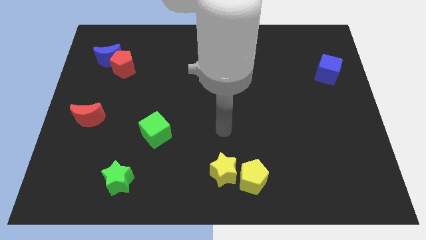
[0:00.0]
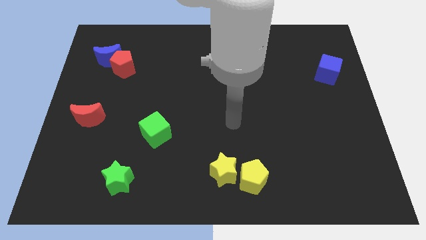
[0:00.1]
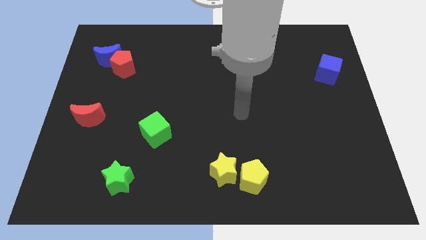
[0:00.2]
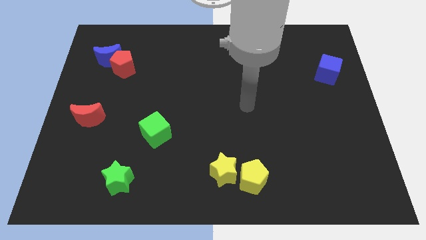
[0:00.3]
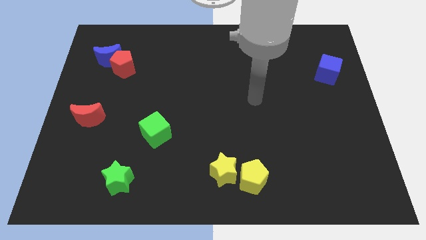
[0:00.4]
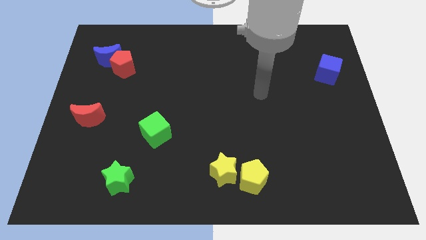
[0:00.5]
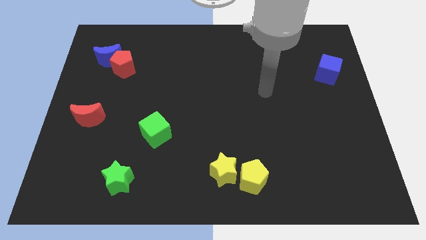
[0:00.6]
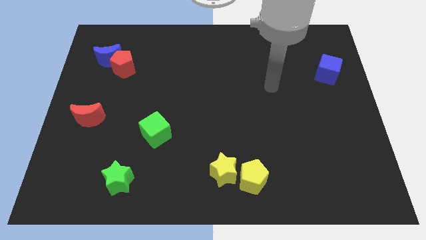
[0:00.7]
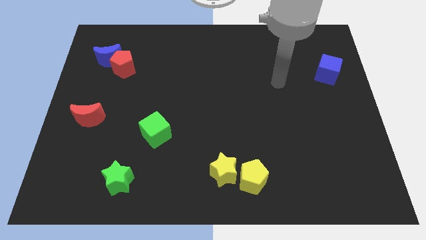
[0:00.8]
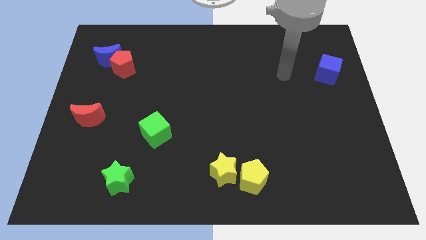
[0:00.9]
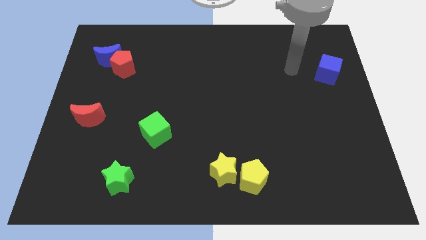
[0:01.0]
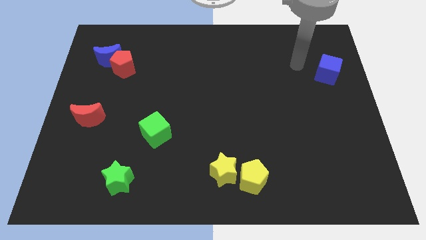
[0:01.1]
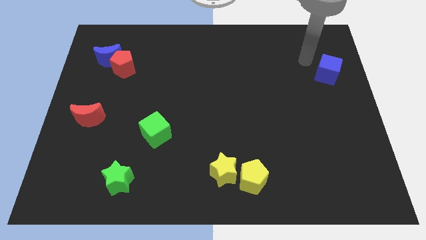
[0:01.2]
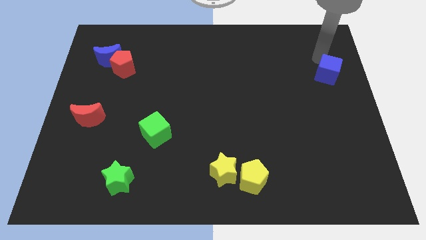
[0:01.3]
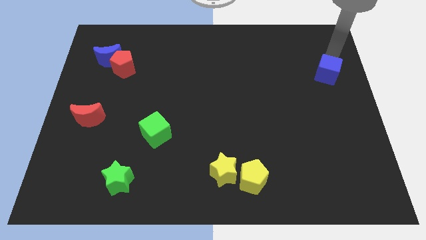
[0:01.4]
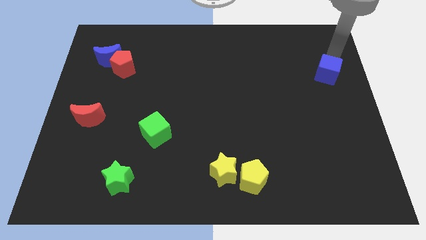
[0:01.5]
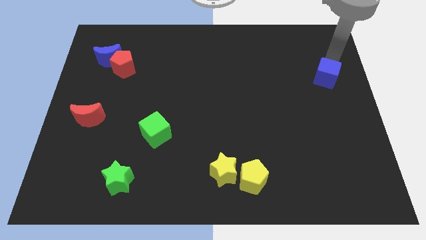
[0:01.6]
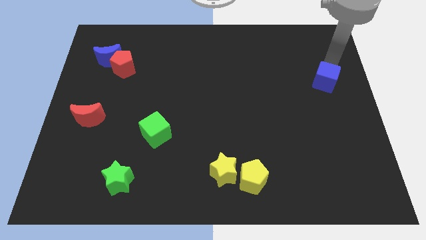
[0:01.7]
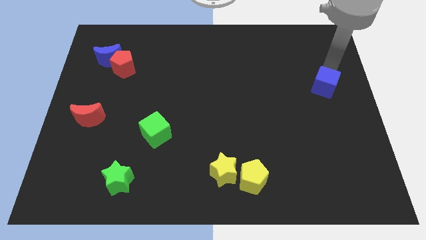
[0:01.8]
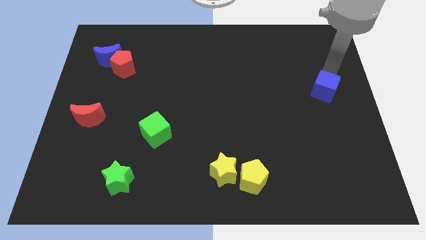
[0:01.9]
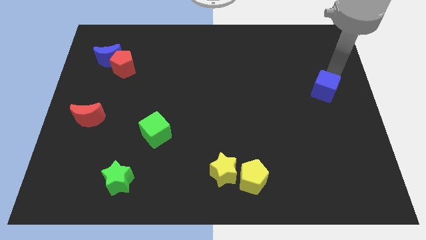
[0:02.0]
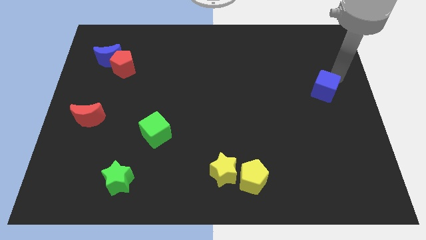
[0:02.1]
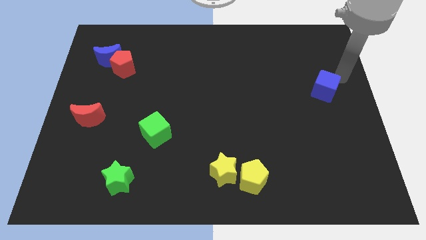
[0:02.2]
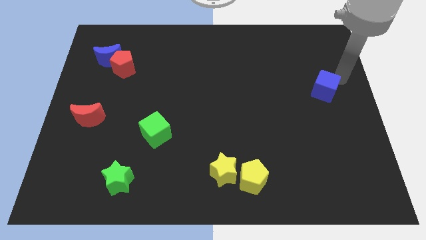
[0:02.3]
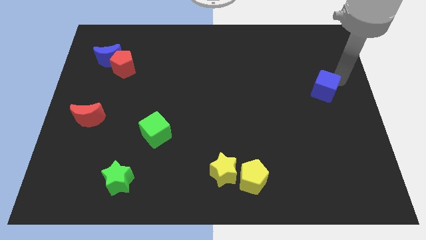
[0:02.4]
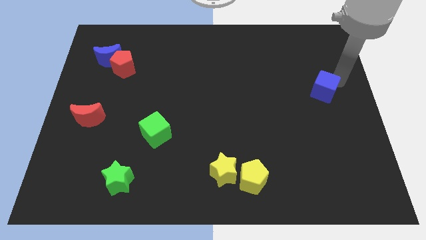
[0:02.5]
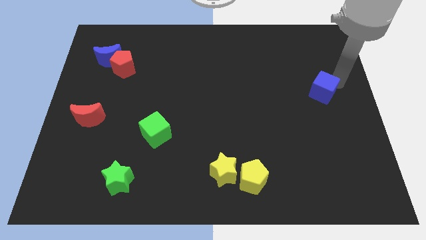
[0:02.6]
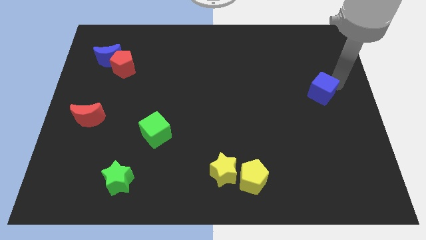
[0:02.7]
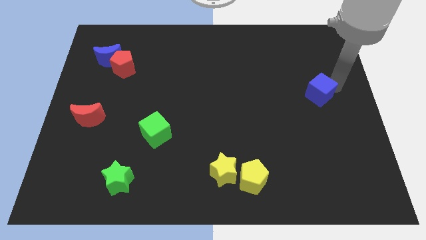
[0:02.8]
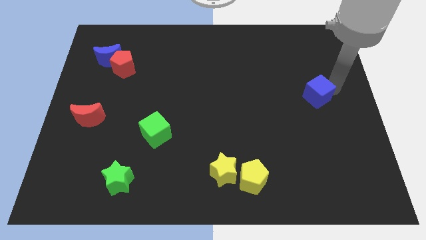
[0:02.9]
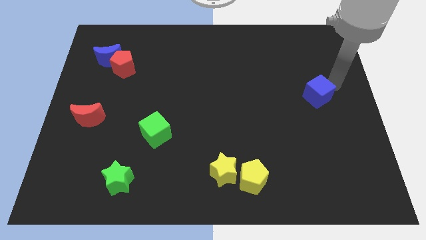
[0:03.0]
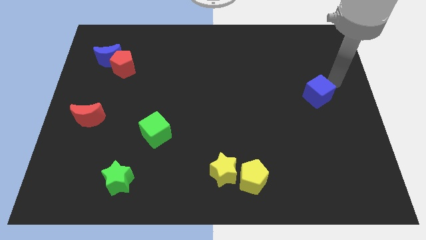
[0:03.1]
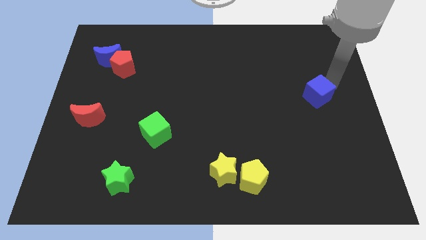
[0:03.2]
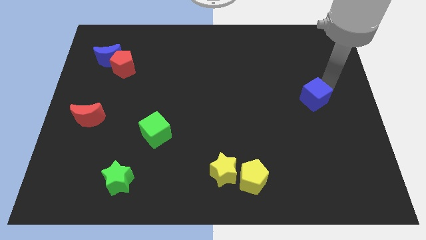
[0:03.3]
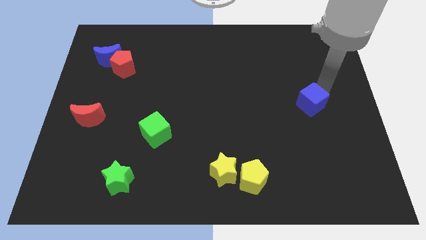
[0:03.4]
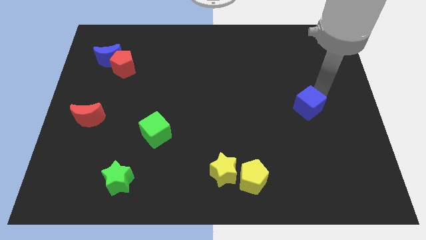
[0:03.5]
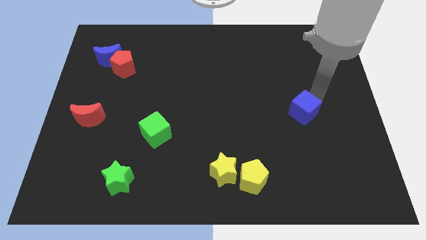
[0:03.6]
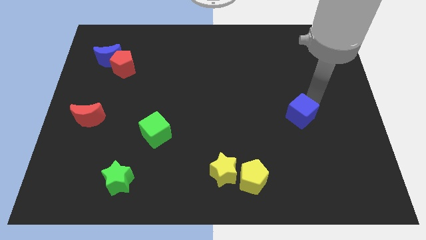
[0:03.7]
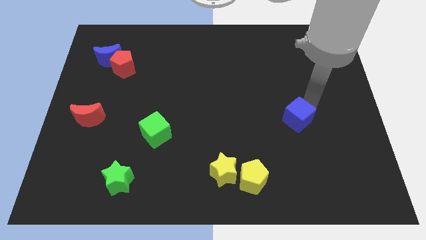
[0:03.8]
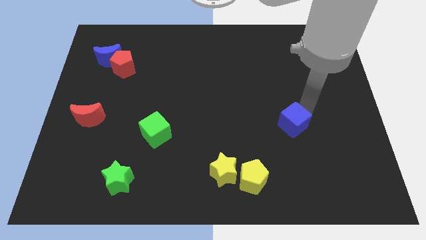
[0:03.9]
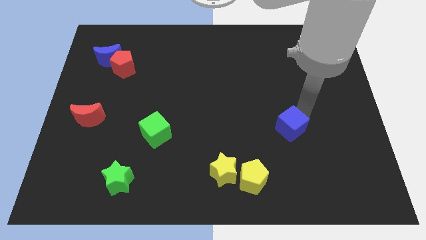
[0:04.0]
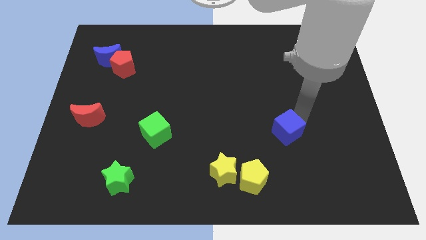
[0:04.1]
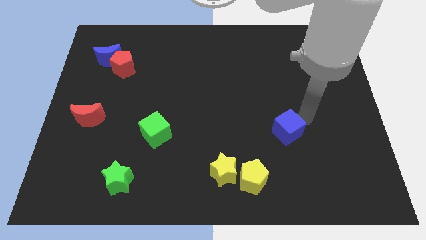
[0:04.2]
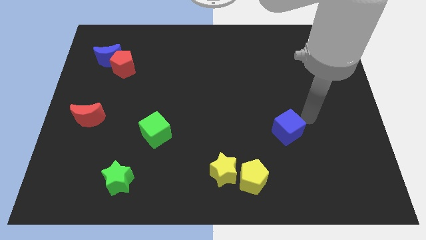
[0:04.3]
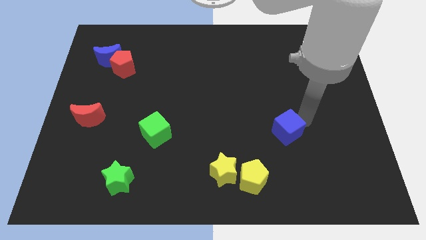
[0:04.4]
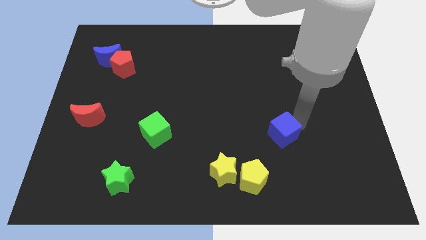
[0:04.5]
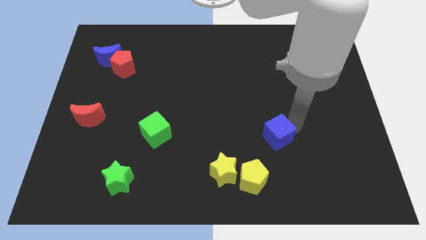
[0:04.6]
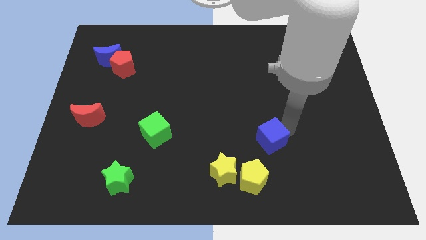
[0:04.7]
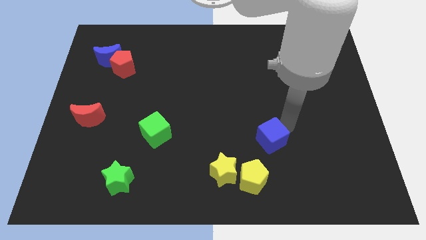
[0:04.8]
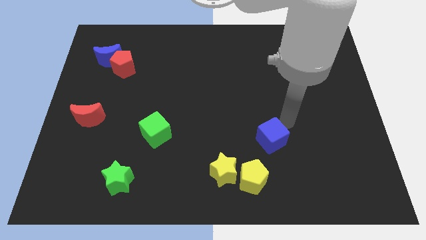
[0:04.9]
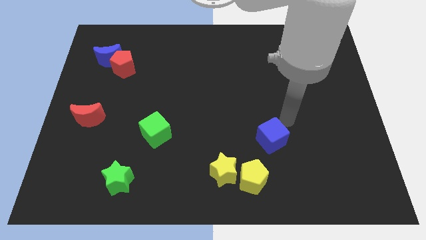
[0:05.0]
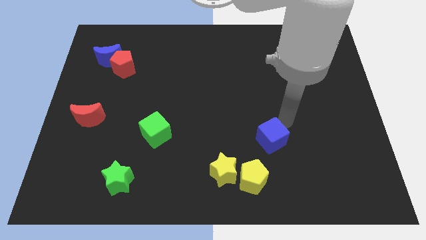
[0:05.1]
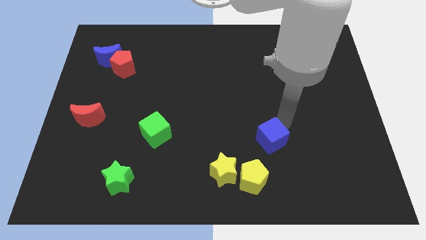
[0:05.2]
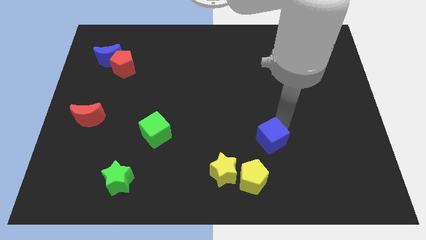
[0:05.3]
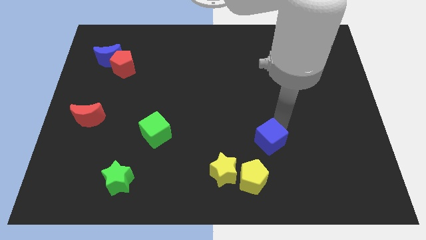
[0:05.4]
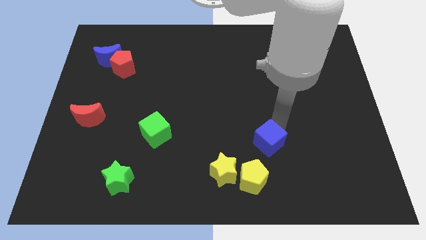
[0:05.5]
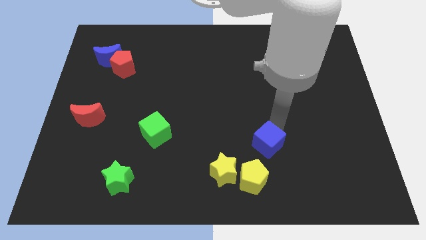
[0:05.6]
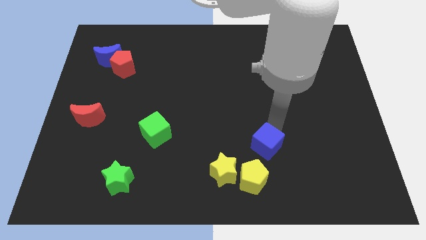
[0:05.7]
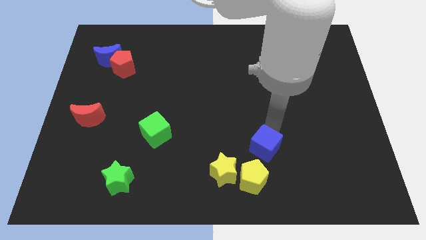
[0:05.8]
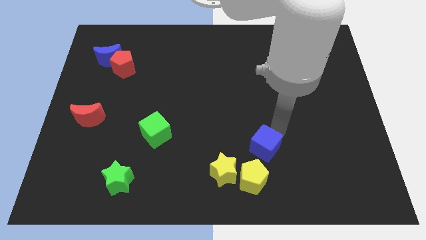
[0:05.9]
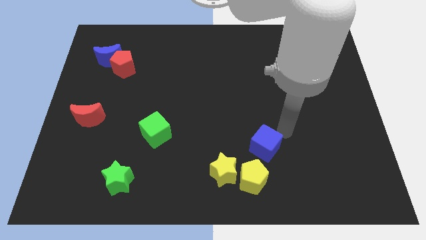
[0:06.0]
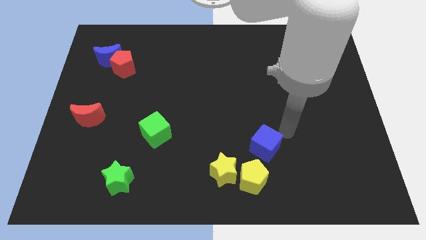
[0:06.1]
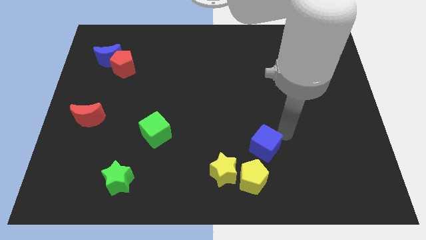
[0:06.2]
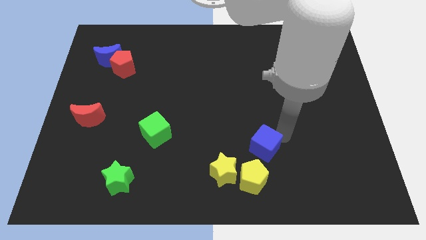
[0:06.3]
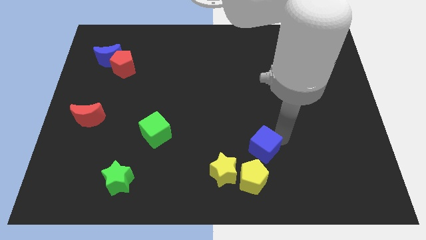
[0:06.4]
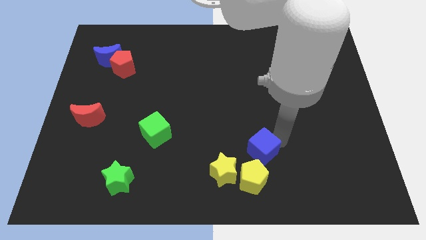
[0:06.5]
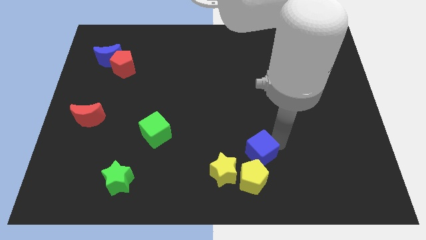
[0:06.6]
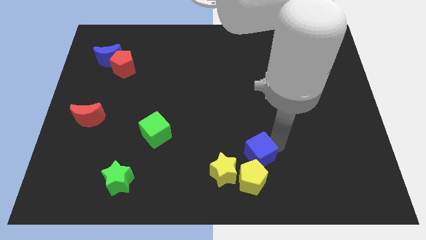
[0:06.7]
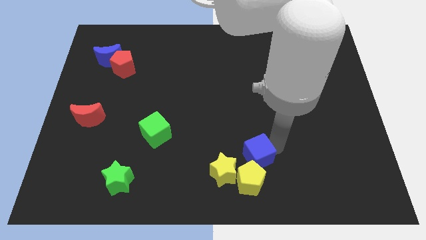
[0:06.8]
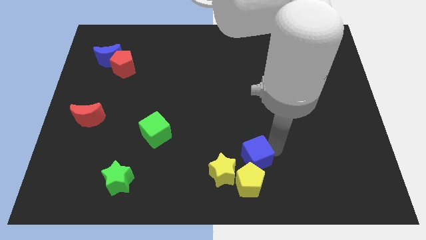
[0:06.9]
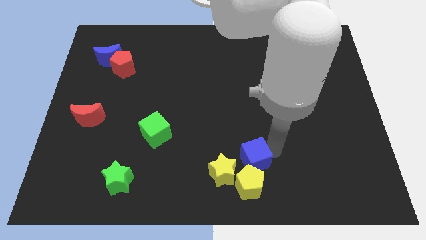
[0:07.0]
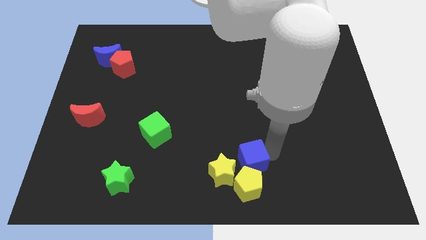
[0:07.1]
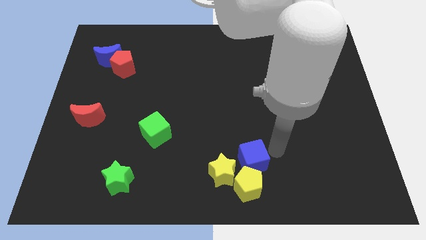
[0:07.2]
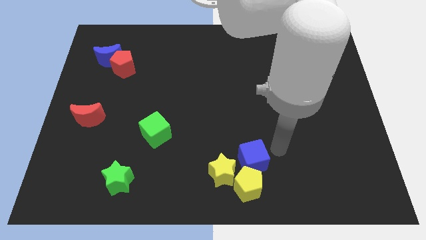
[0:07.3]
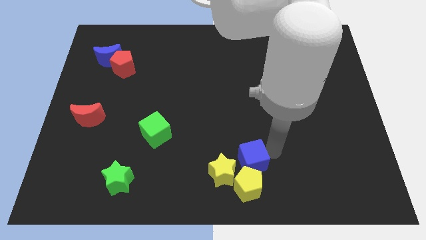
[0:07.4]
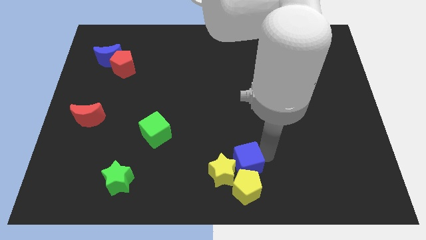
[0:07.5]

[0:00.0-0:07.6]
push the blue cube towards the yellow star
